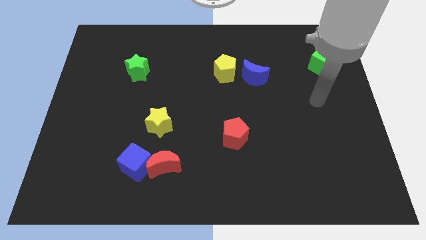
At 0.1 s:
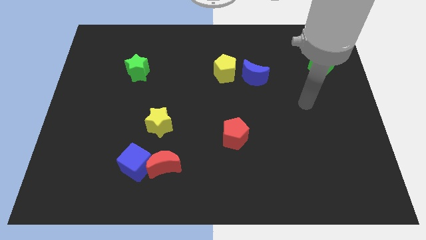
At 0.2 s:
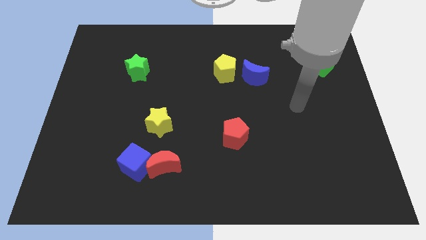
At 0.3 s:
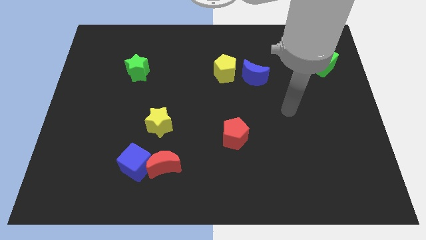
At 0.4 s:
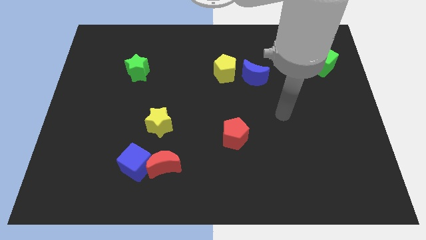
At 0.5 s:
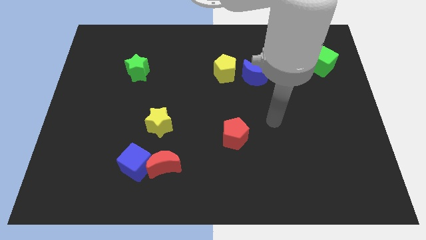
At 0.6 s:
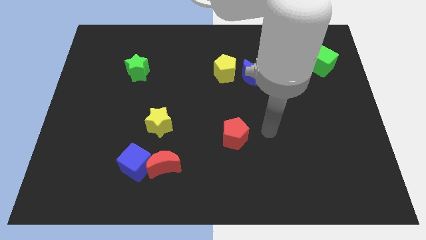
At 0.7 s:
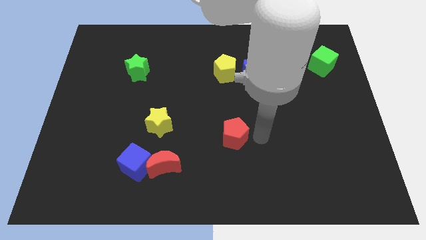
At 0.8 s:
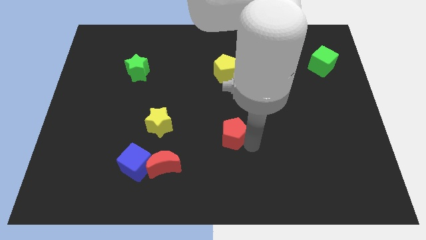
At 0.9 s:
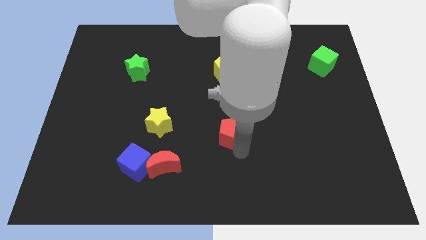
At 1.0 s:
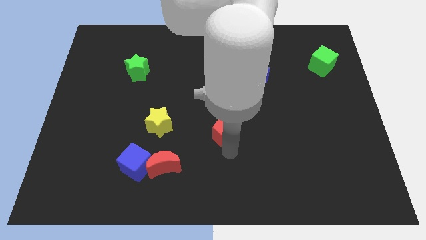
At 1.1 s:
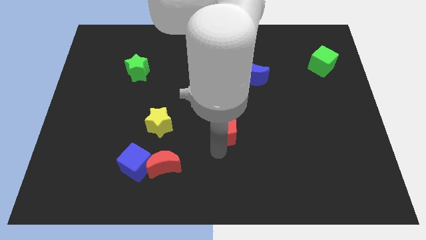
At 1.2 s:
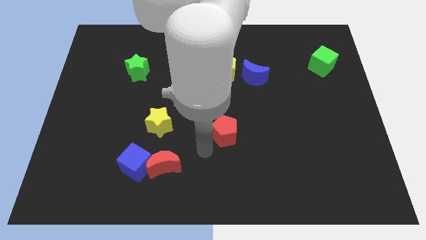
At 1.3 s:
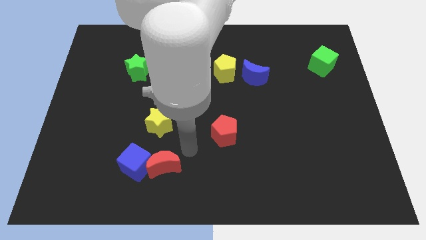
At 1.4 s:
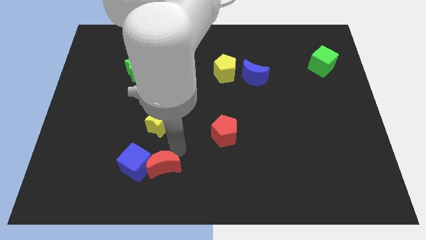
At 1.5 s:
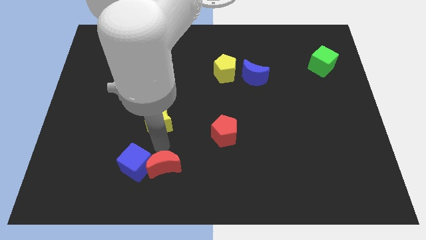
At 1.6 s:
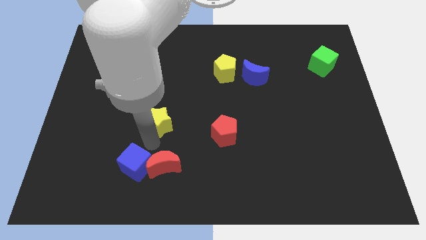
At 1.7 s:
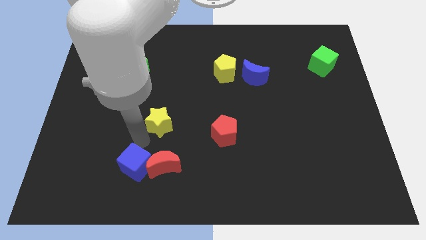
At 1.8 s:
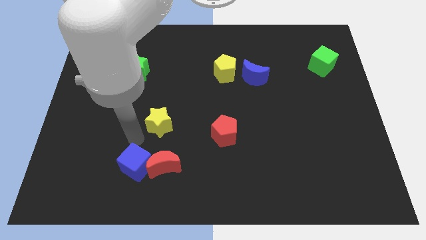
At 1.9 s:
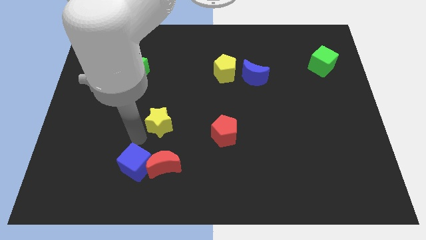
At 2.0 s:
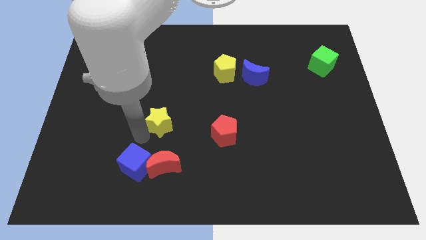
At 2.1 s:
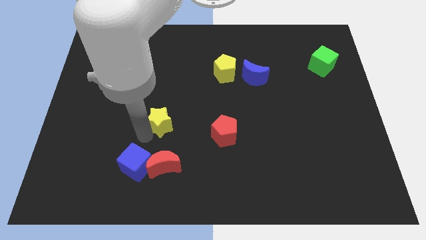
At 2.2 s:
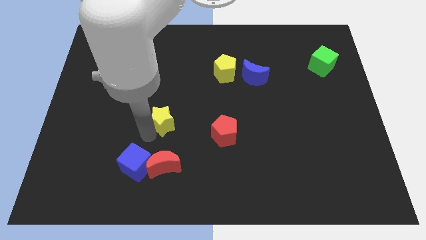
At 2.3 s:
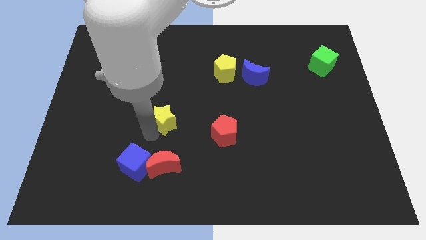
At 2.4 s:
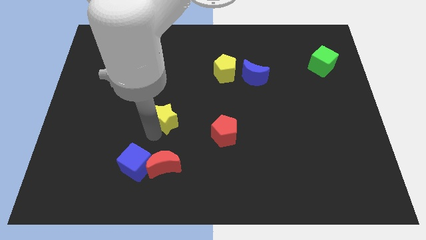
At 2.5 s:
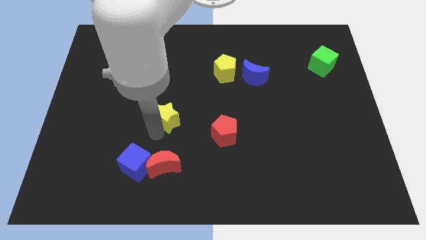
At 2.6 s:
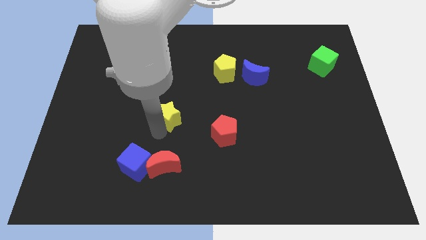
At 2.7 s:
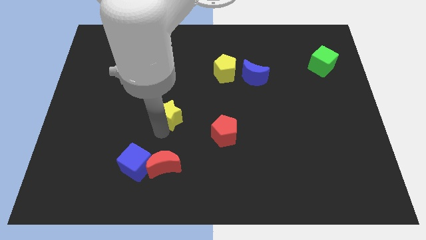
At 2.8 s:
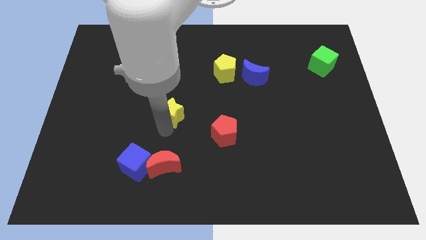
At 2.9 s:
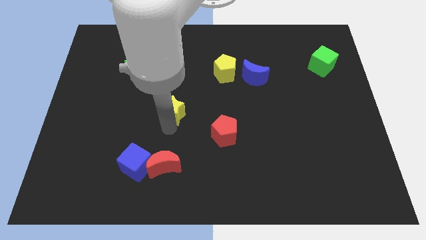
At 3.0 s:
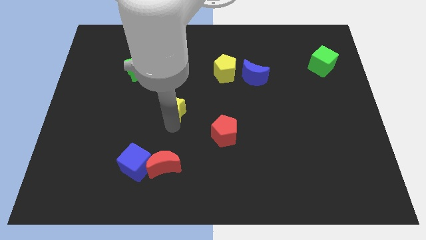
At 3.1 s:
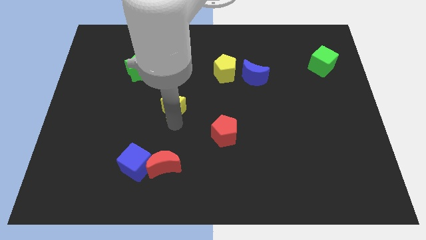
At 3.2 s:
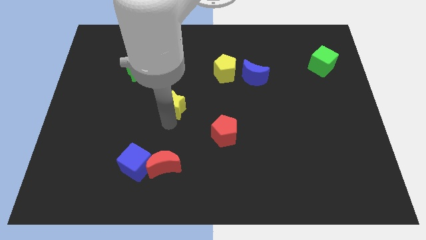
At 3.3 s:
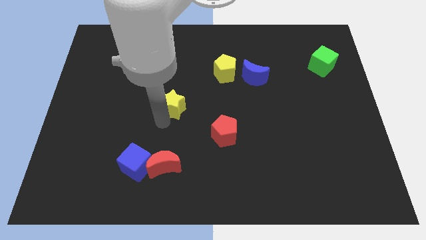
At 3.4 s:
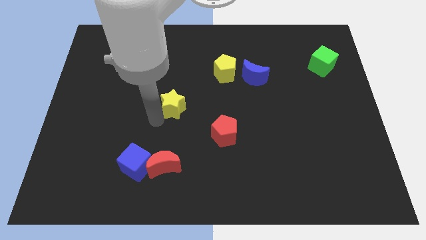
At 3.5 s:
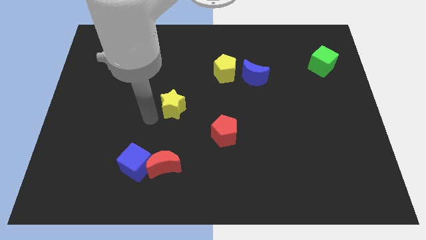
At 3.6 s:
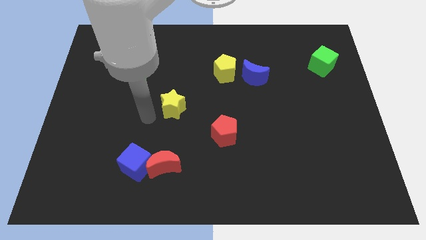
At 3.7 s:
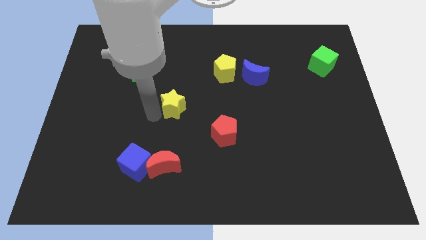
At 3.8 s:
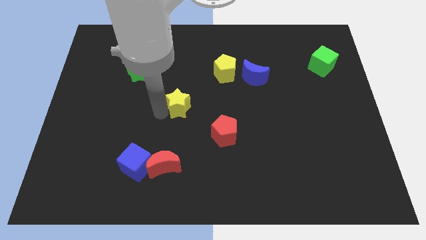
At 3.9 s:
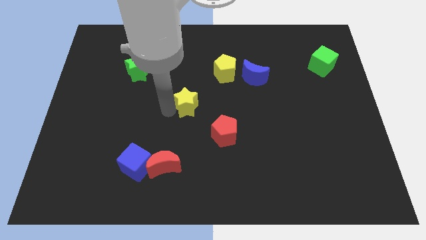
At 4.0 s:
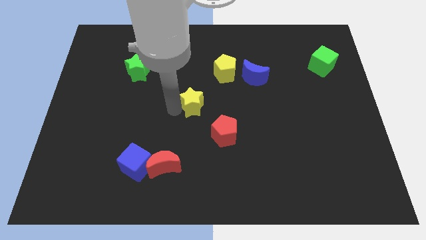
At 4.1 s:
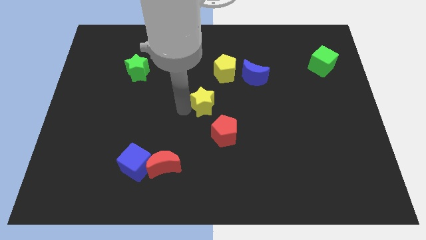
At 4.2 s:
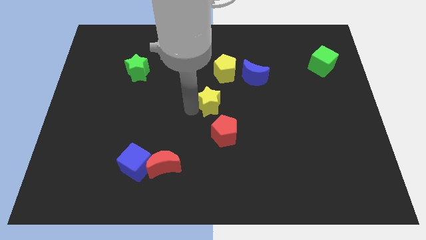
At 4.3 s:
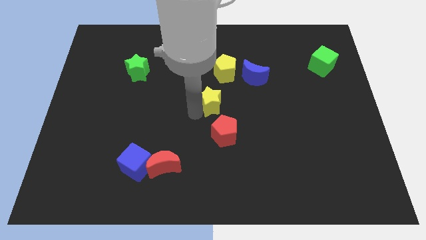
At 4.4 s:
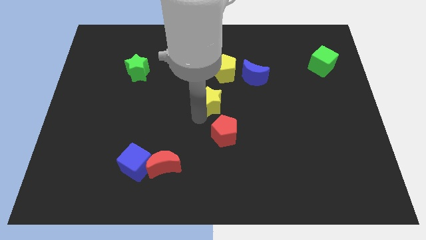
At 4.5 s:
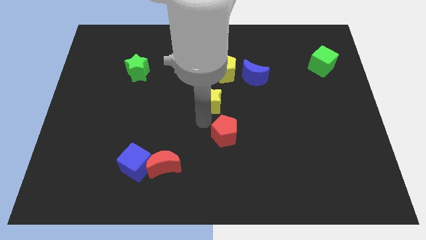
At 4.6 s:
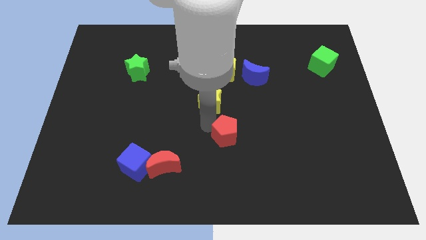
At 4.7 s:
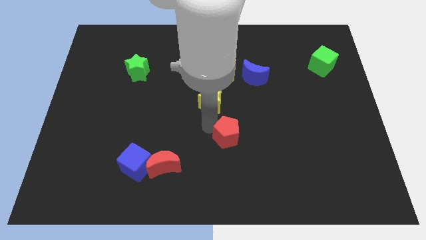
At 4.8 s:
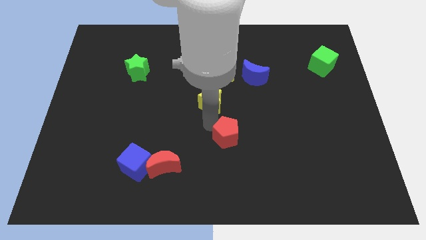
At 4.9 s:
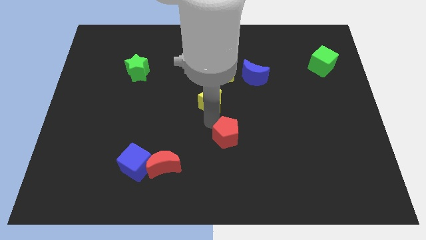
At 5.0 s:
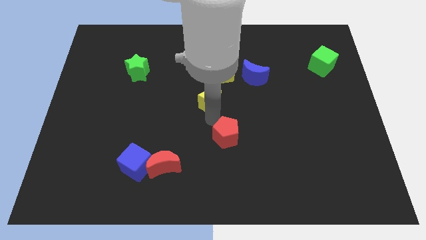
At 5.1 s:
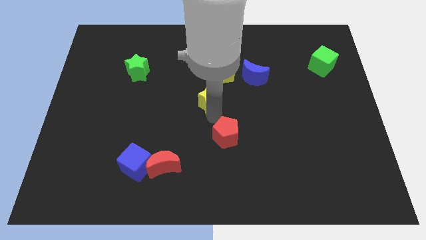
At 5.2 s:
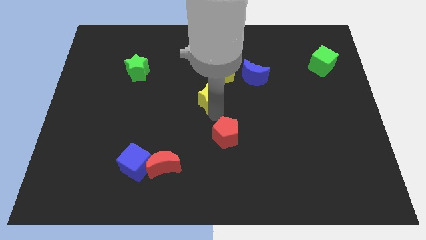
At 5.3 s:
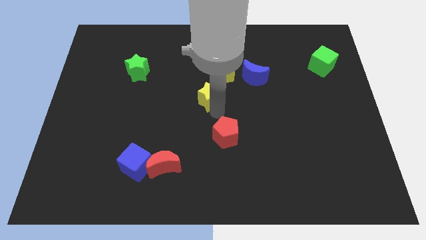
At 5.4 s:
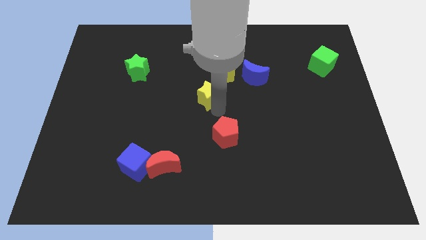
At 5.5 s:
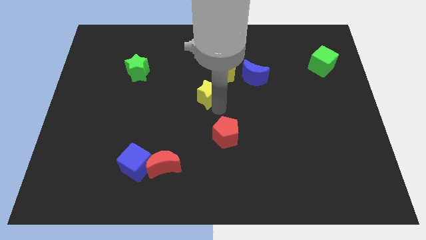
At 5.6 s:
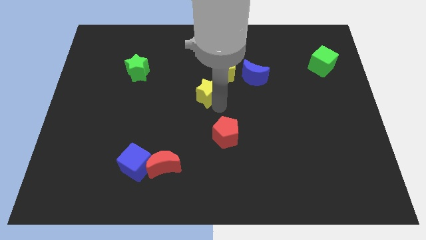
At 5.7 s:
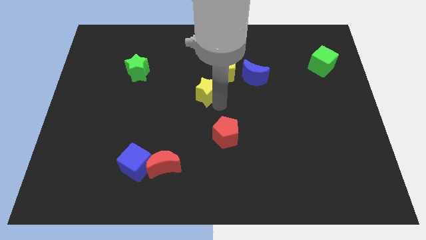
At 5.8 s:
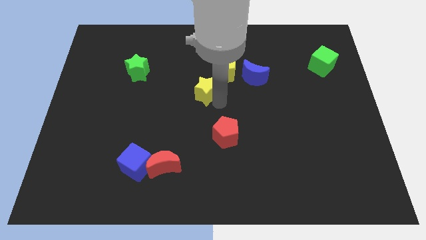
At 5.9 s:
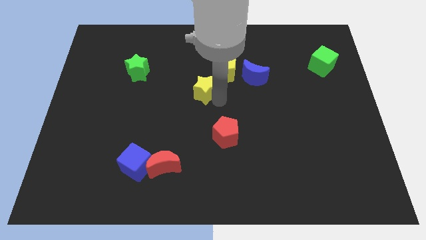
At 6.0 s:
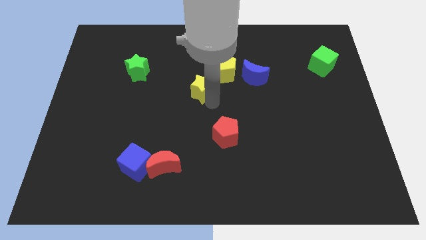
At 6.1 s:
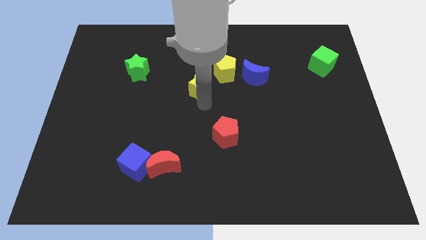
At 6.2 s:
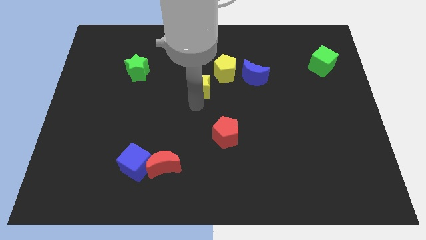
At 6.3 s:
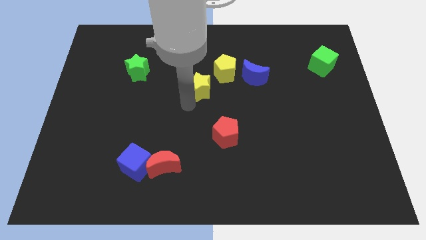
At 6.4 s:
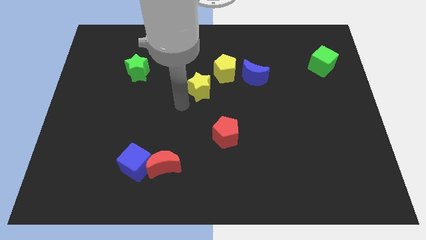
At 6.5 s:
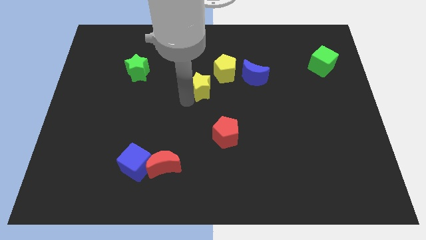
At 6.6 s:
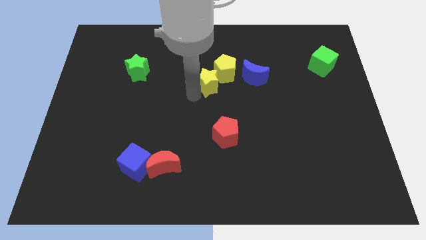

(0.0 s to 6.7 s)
move the yellow star towards the yellow pentagon
